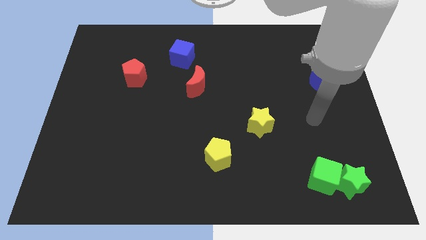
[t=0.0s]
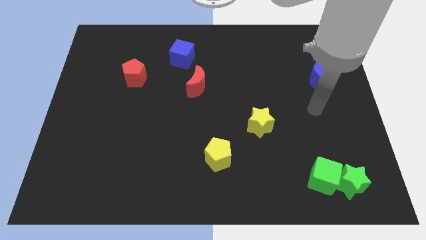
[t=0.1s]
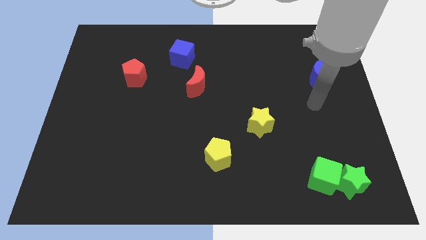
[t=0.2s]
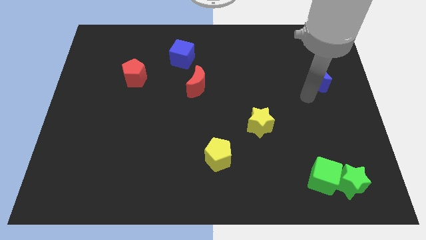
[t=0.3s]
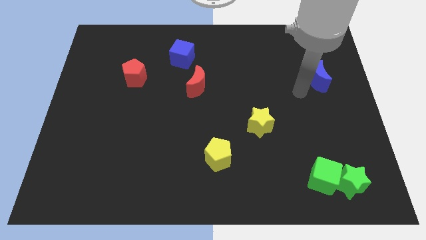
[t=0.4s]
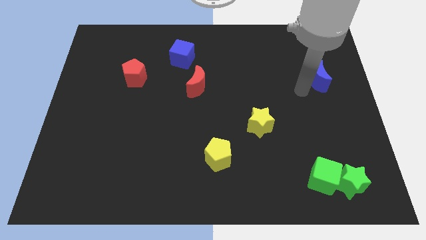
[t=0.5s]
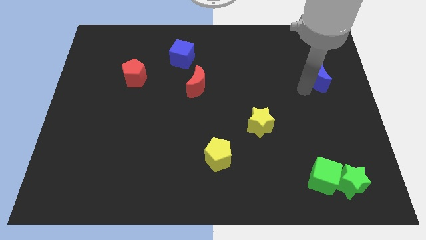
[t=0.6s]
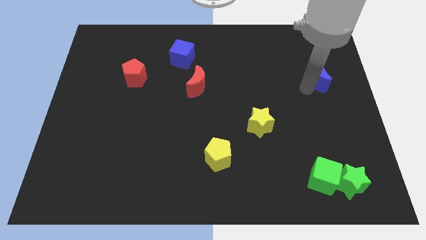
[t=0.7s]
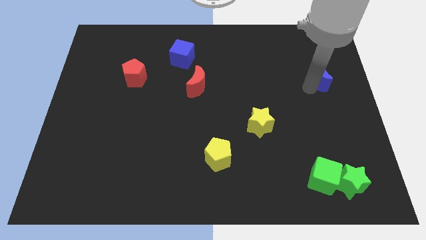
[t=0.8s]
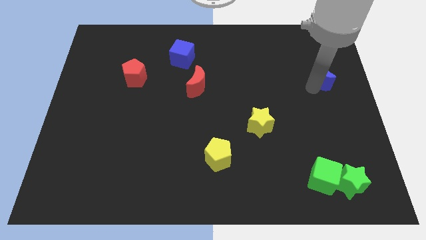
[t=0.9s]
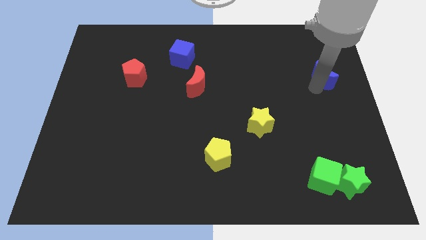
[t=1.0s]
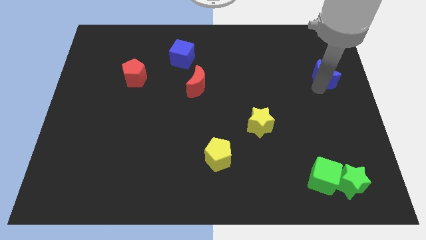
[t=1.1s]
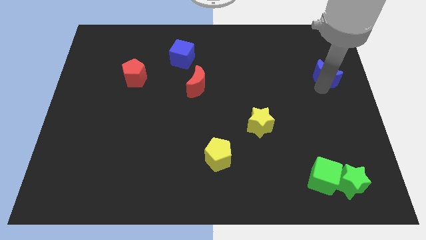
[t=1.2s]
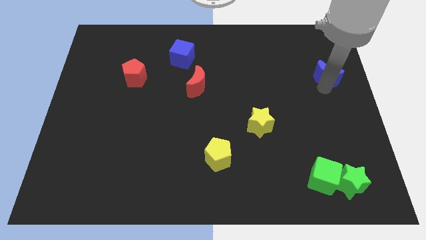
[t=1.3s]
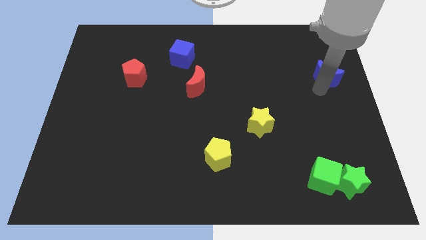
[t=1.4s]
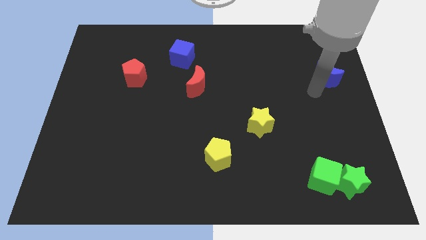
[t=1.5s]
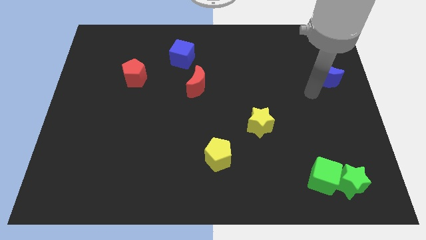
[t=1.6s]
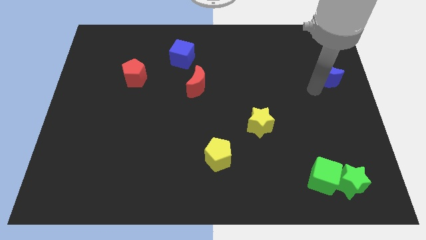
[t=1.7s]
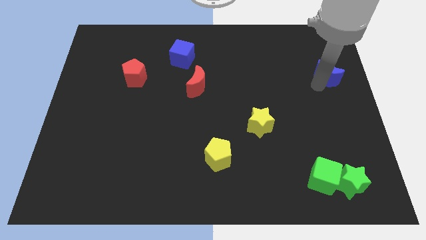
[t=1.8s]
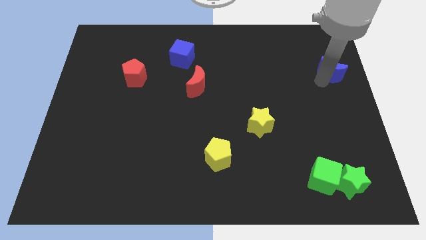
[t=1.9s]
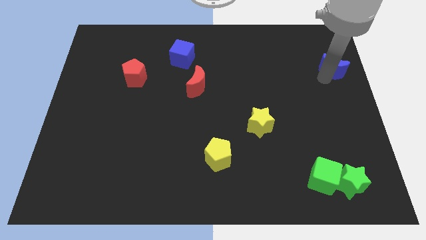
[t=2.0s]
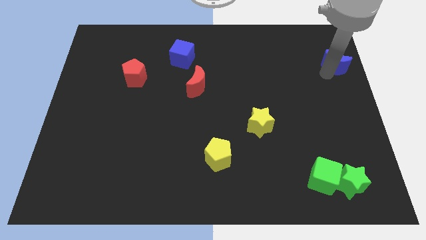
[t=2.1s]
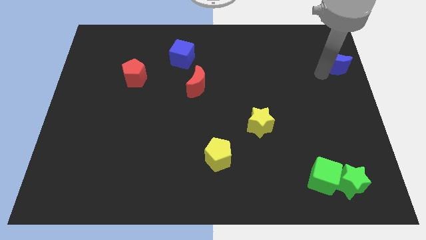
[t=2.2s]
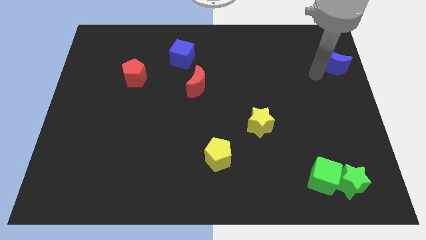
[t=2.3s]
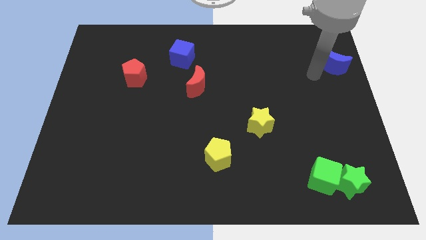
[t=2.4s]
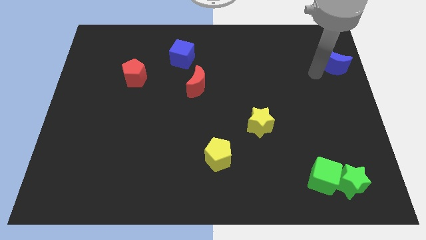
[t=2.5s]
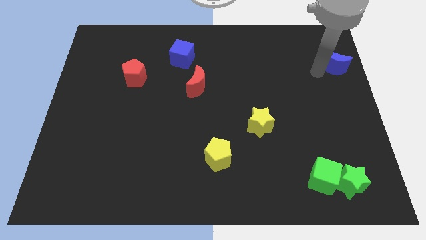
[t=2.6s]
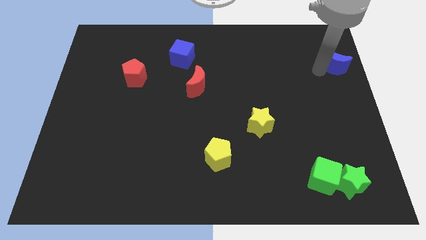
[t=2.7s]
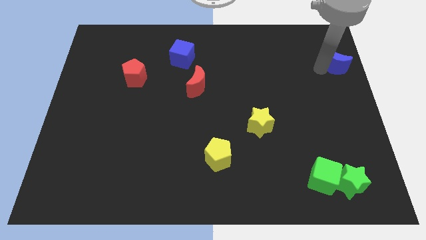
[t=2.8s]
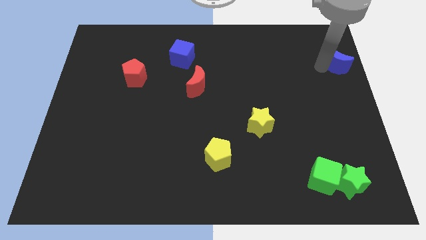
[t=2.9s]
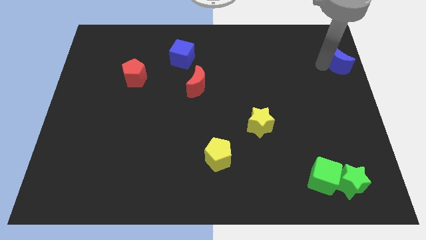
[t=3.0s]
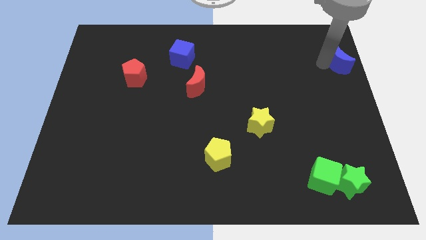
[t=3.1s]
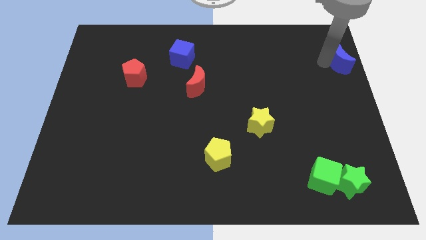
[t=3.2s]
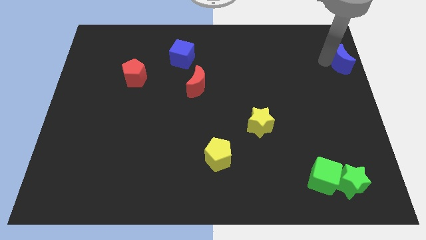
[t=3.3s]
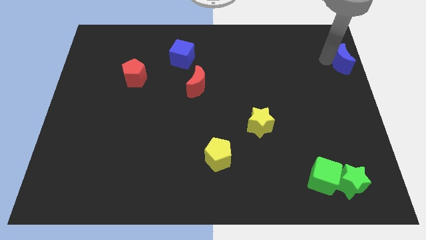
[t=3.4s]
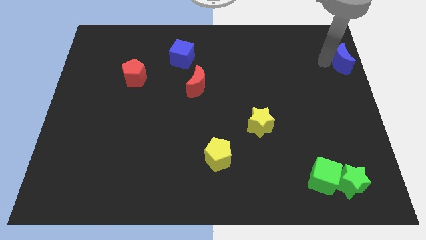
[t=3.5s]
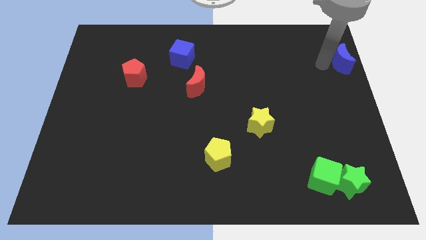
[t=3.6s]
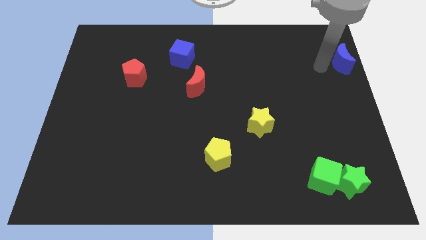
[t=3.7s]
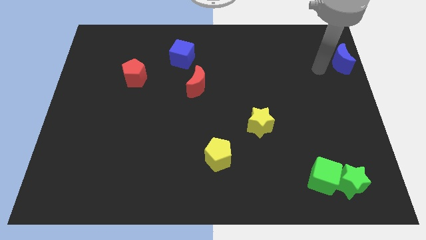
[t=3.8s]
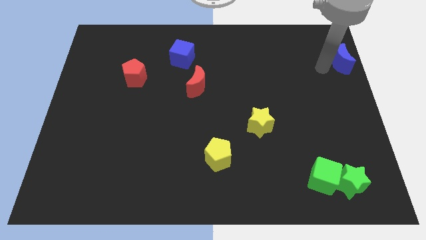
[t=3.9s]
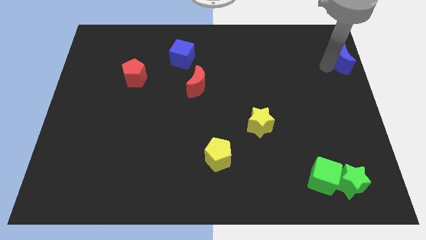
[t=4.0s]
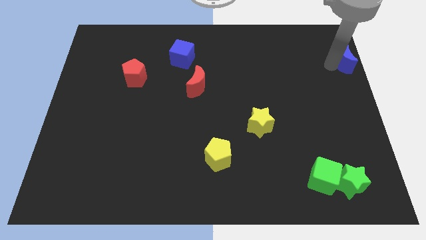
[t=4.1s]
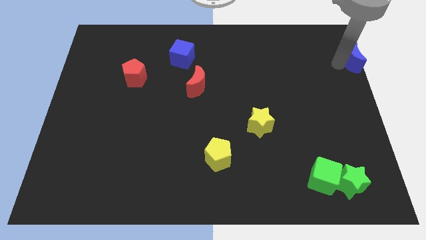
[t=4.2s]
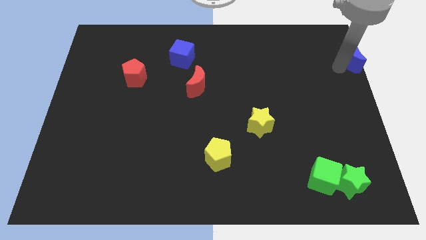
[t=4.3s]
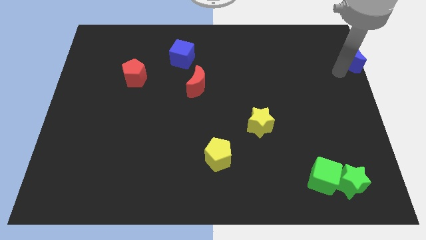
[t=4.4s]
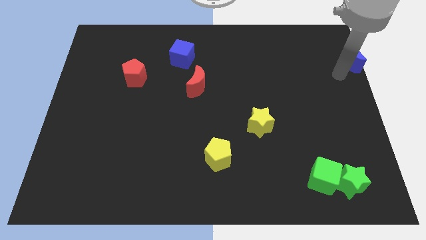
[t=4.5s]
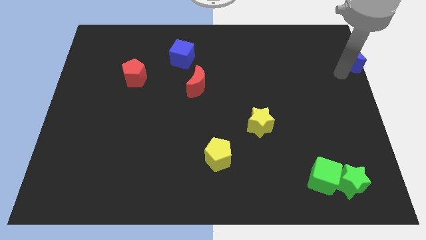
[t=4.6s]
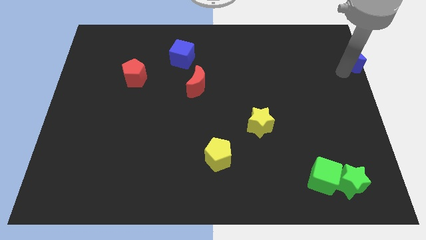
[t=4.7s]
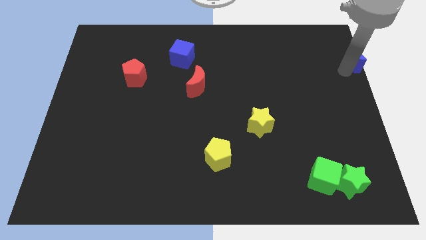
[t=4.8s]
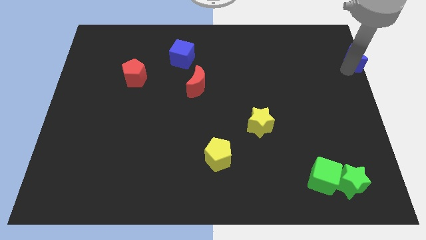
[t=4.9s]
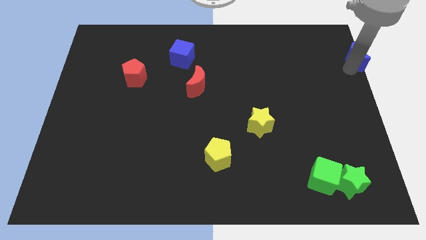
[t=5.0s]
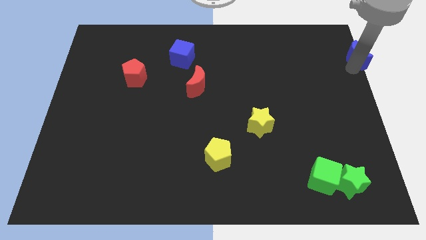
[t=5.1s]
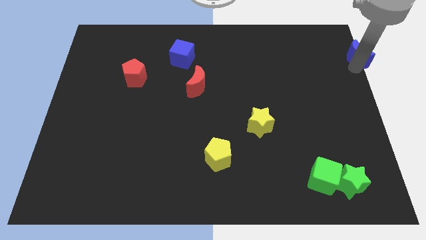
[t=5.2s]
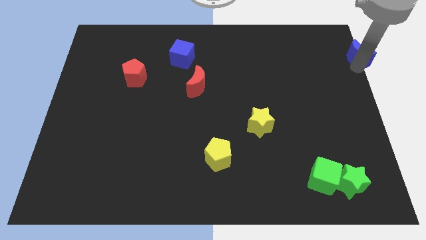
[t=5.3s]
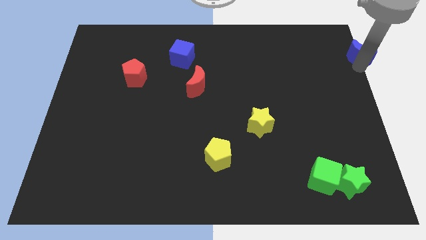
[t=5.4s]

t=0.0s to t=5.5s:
push the blue moon to the top right corner

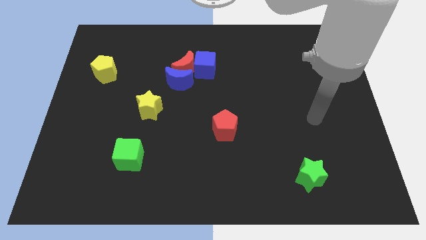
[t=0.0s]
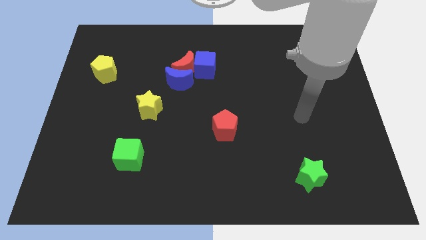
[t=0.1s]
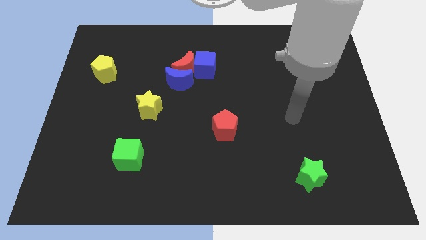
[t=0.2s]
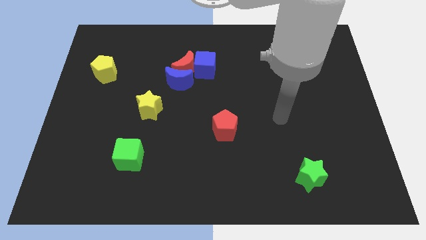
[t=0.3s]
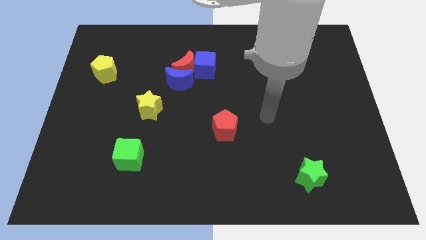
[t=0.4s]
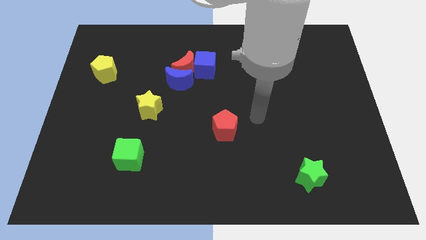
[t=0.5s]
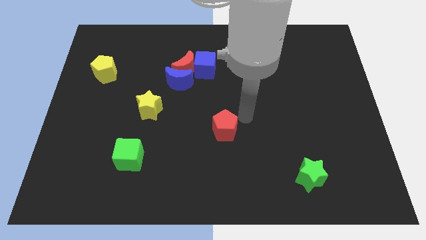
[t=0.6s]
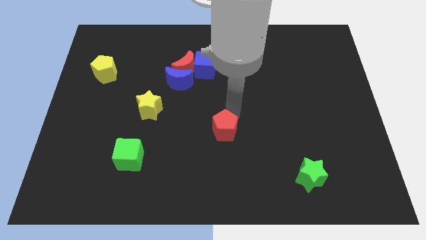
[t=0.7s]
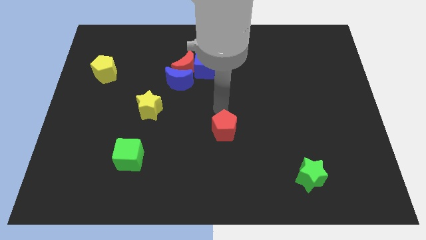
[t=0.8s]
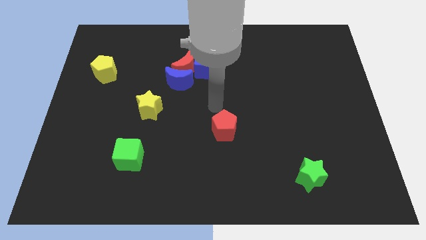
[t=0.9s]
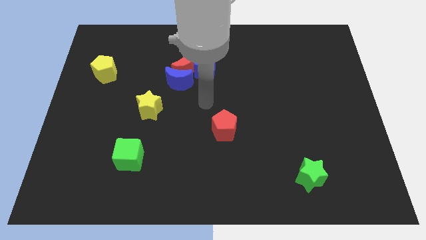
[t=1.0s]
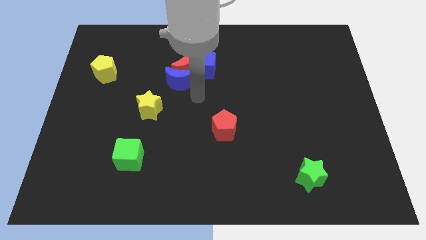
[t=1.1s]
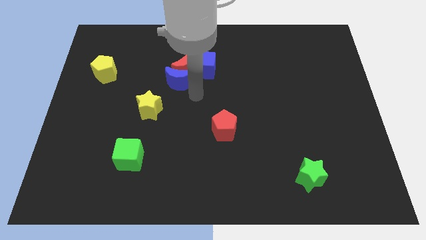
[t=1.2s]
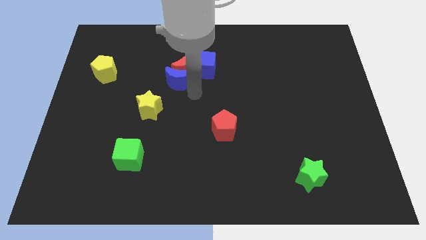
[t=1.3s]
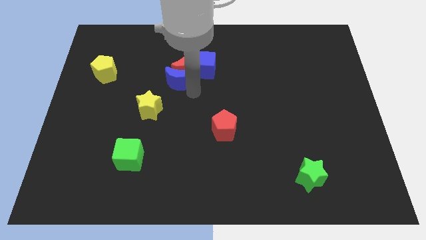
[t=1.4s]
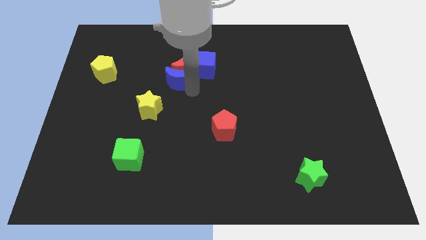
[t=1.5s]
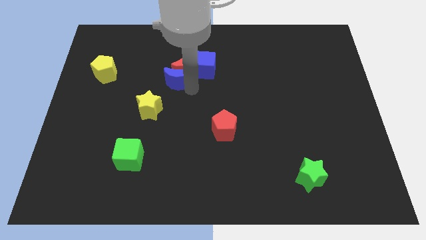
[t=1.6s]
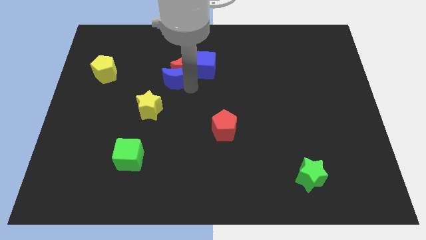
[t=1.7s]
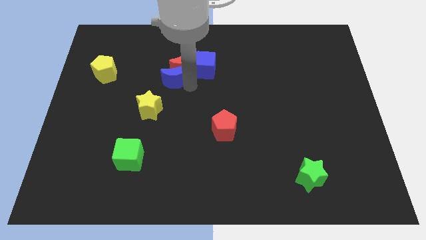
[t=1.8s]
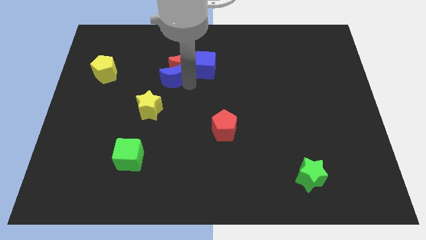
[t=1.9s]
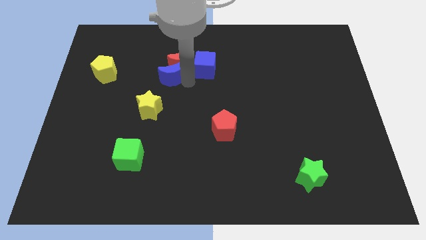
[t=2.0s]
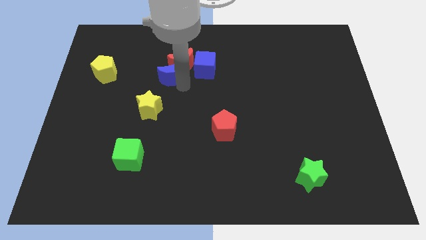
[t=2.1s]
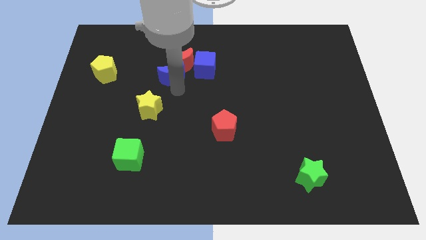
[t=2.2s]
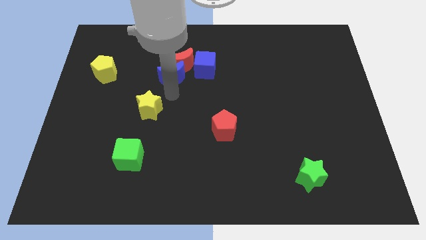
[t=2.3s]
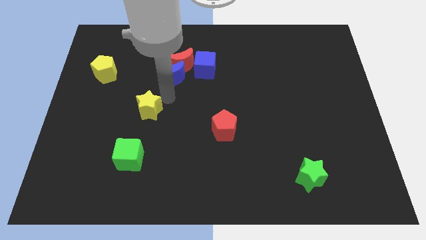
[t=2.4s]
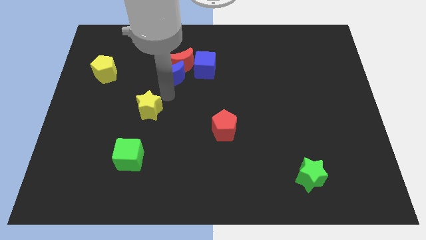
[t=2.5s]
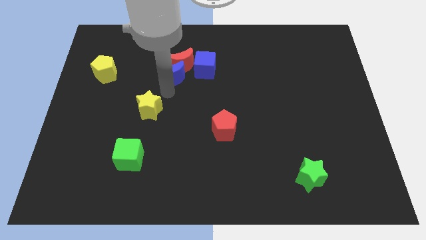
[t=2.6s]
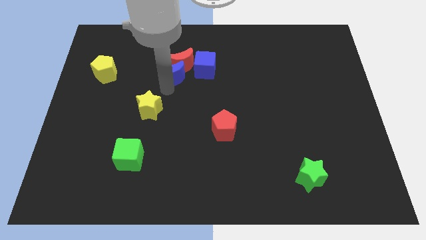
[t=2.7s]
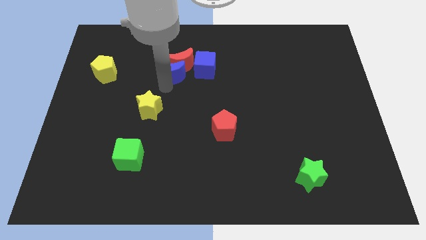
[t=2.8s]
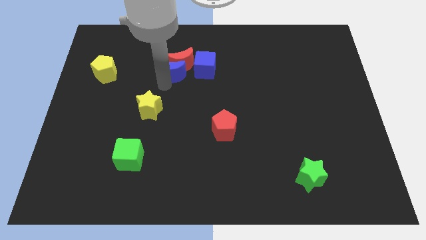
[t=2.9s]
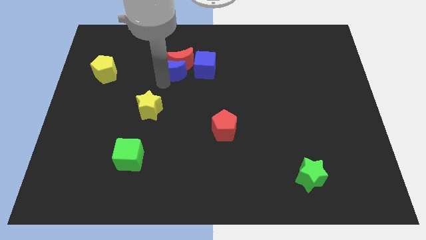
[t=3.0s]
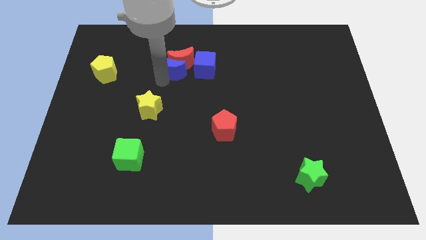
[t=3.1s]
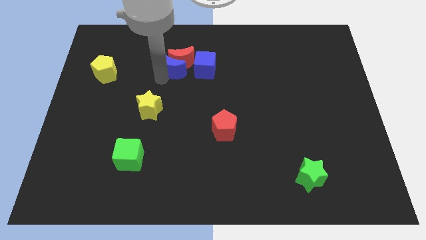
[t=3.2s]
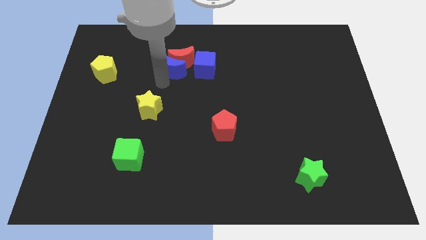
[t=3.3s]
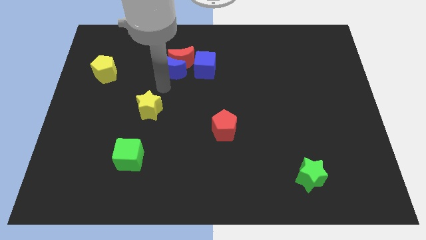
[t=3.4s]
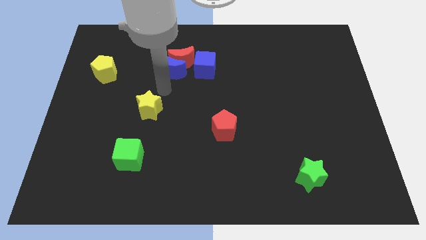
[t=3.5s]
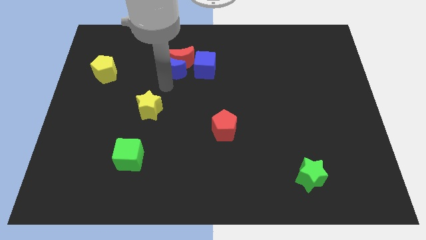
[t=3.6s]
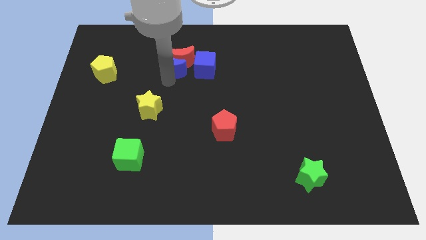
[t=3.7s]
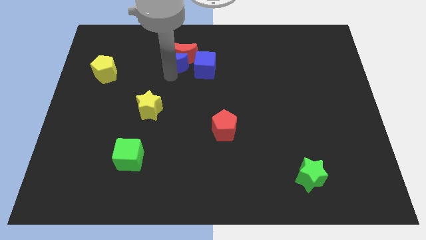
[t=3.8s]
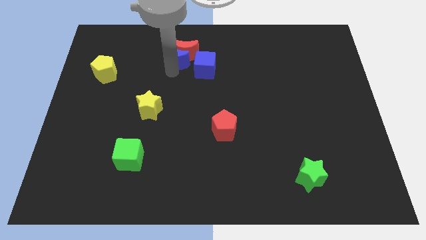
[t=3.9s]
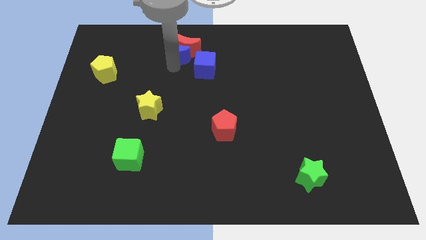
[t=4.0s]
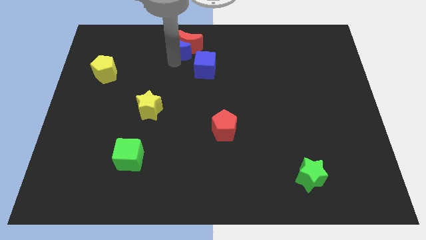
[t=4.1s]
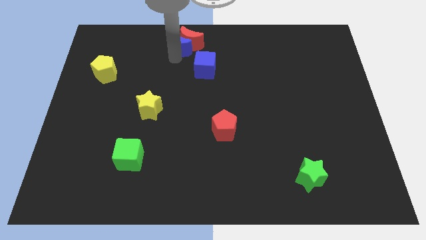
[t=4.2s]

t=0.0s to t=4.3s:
move the blue moon to the towards your base
